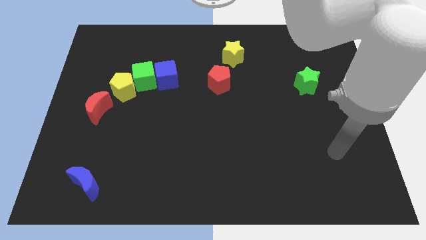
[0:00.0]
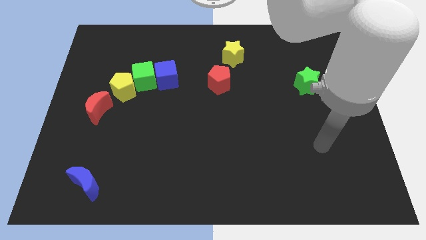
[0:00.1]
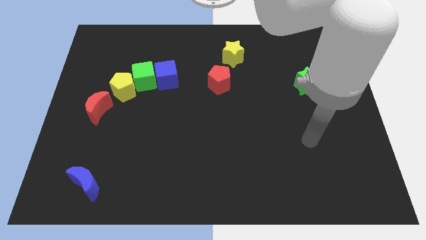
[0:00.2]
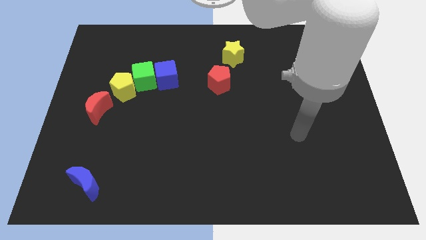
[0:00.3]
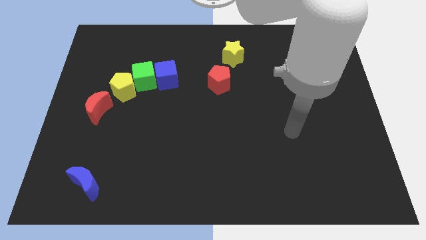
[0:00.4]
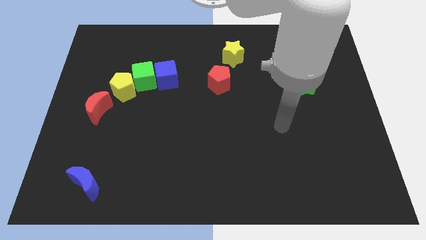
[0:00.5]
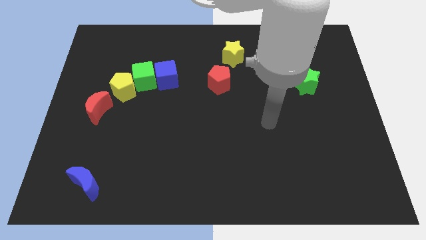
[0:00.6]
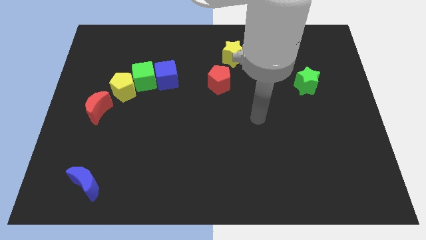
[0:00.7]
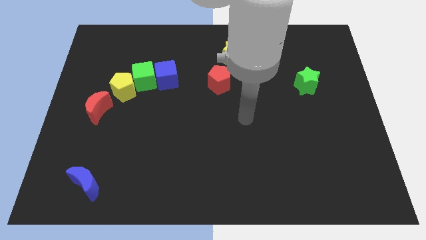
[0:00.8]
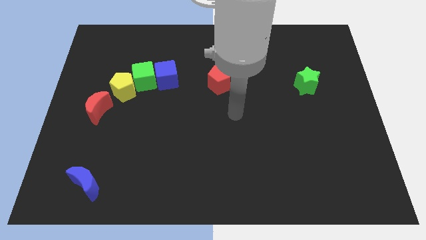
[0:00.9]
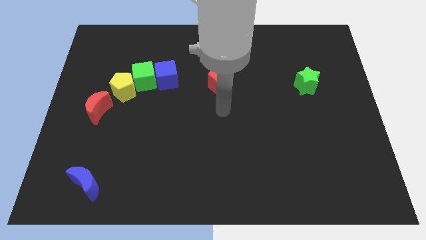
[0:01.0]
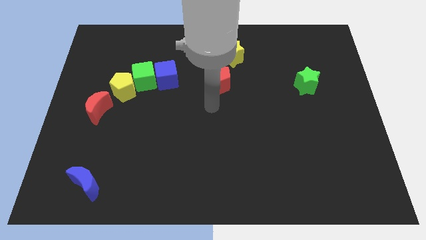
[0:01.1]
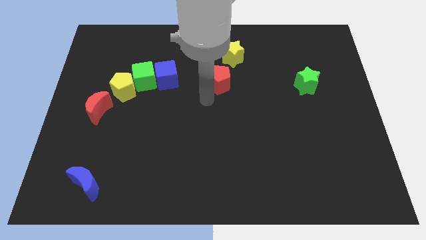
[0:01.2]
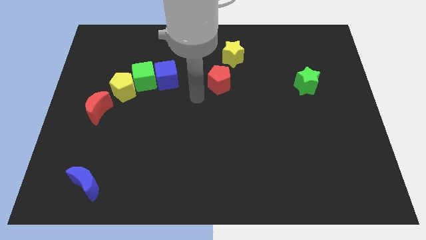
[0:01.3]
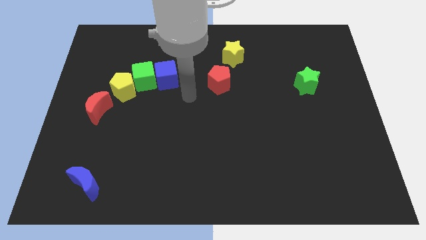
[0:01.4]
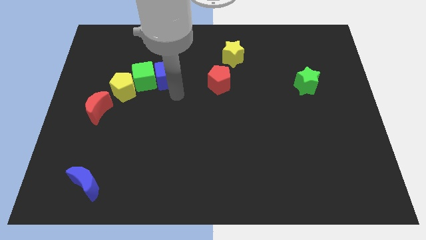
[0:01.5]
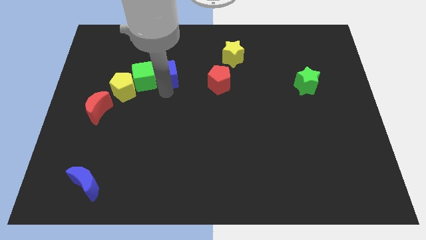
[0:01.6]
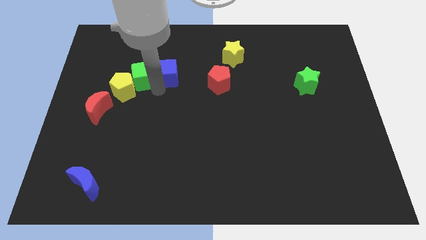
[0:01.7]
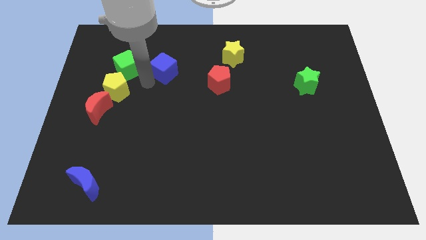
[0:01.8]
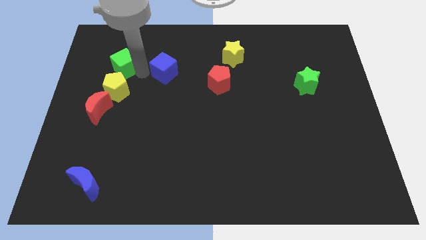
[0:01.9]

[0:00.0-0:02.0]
move the blue cube away from the green cube

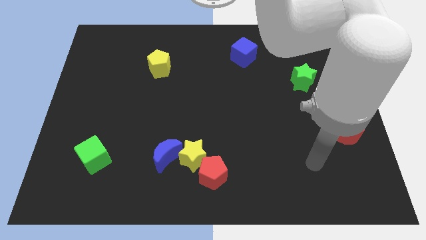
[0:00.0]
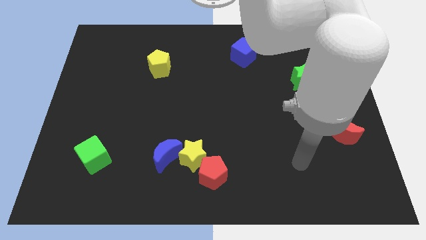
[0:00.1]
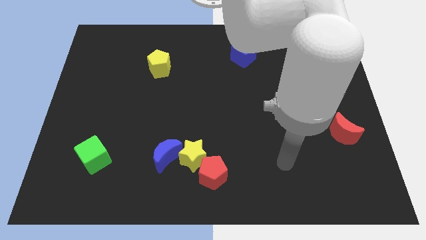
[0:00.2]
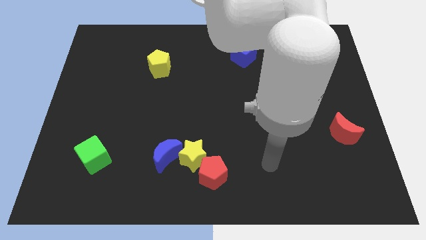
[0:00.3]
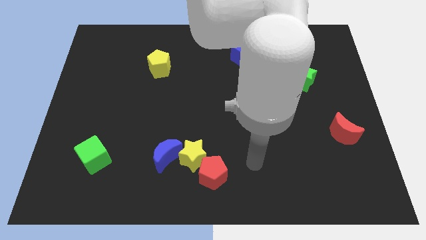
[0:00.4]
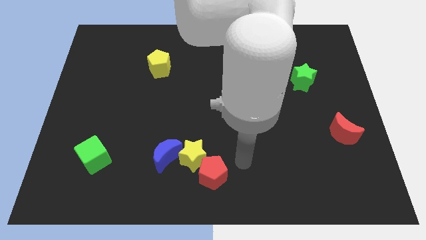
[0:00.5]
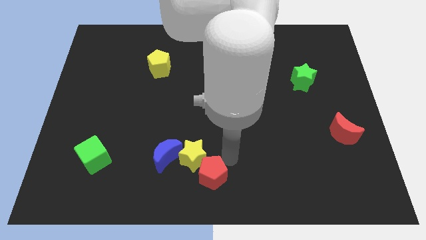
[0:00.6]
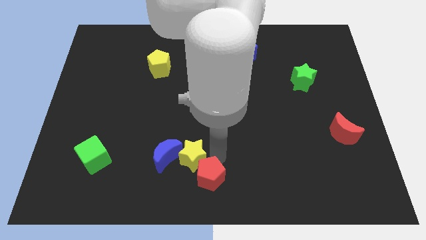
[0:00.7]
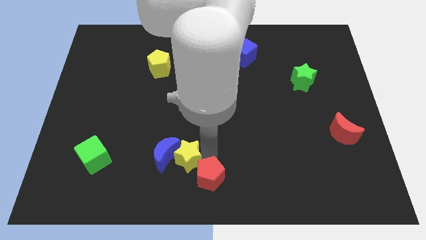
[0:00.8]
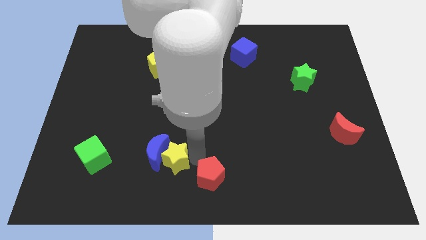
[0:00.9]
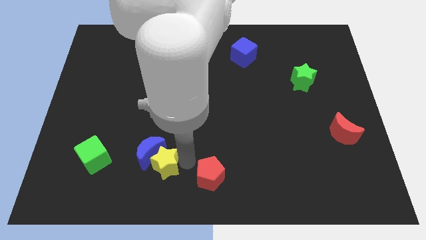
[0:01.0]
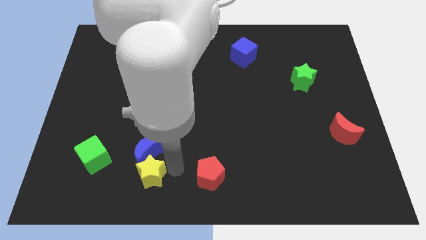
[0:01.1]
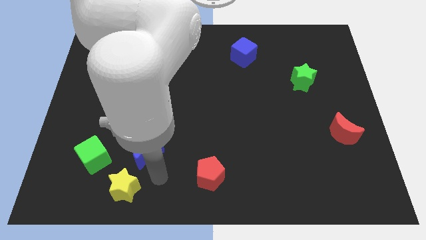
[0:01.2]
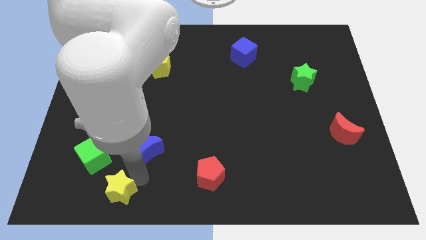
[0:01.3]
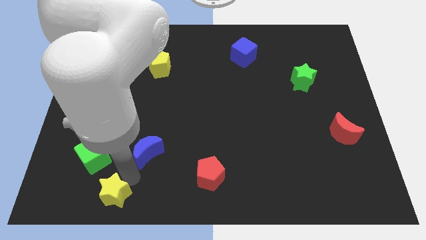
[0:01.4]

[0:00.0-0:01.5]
pull the blue moon apart from the yellow star

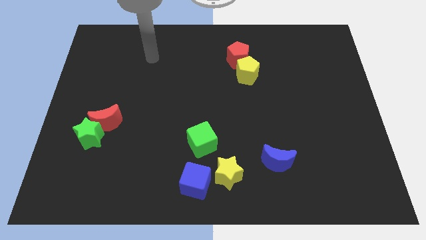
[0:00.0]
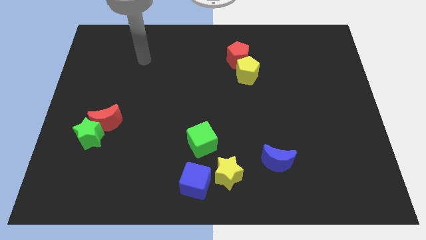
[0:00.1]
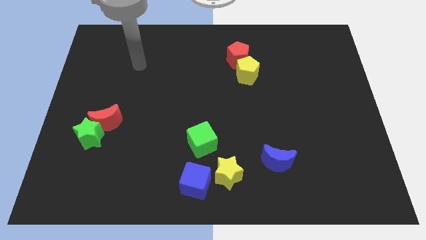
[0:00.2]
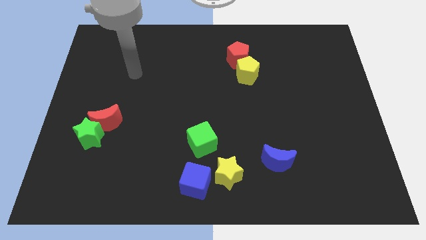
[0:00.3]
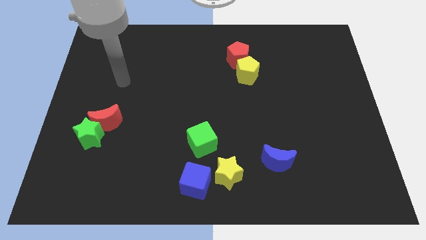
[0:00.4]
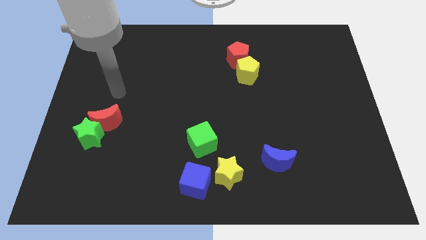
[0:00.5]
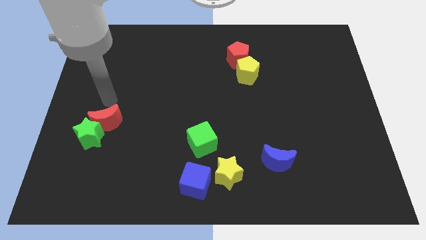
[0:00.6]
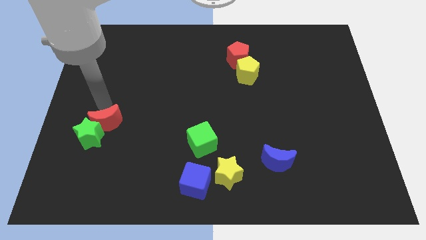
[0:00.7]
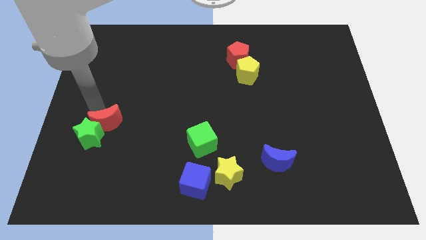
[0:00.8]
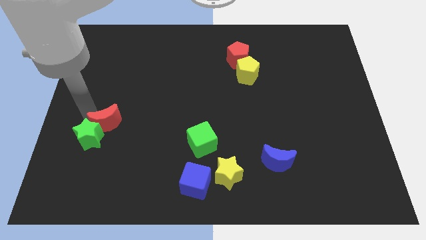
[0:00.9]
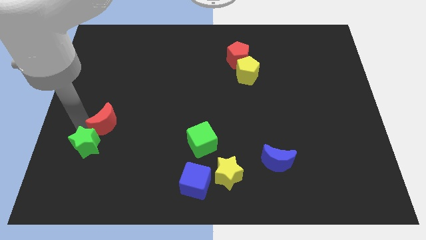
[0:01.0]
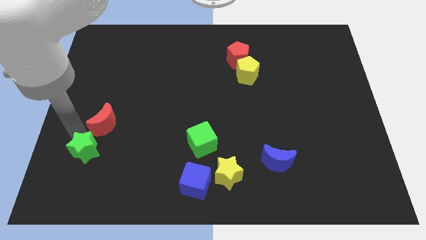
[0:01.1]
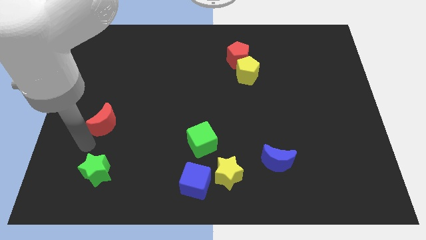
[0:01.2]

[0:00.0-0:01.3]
separate the red moon from the green star

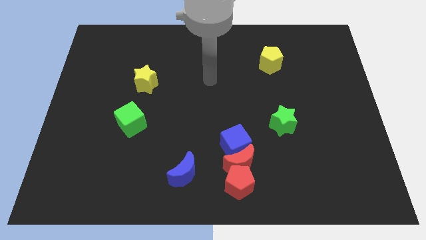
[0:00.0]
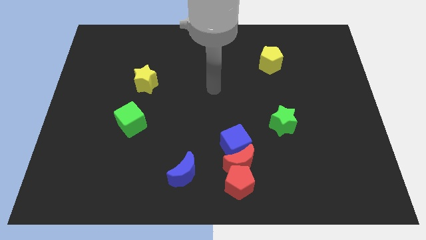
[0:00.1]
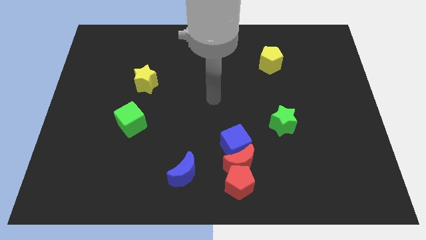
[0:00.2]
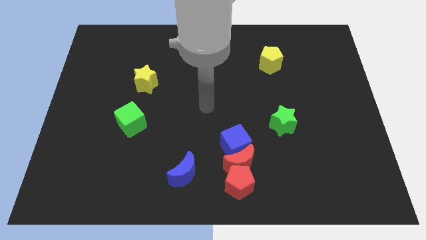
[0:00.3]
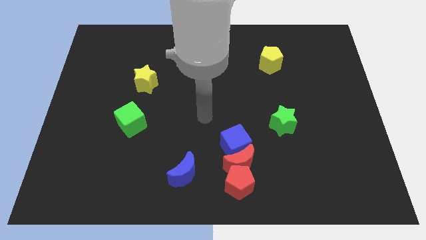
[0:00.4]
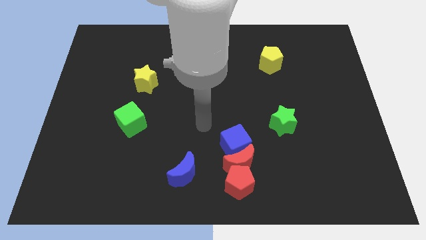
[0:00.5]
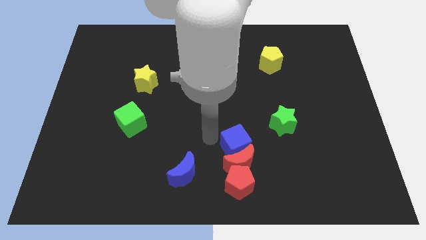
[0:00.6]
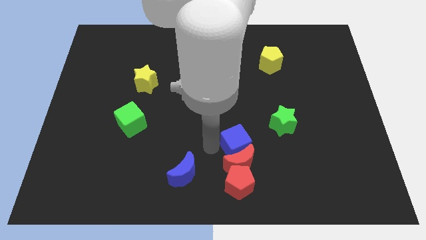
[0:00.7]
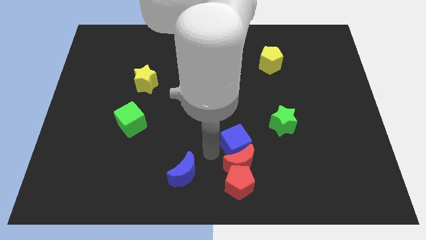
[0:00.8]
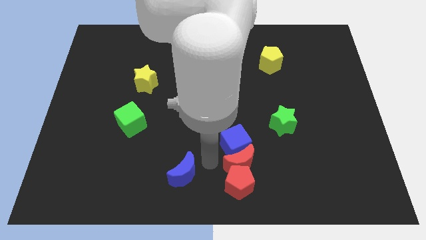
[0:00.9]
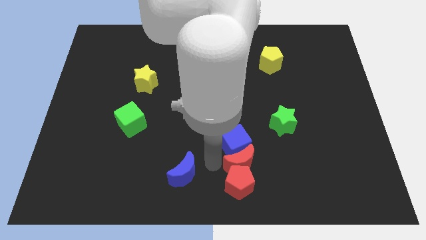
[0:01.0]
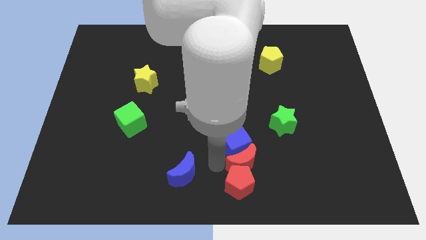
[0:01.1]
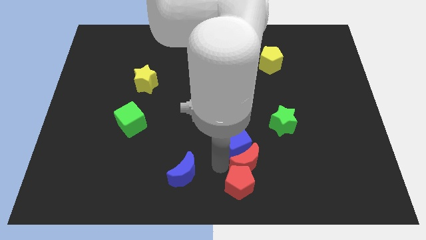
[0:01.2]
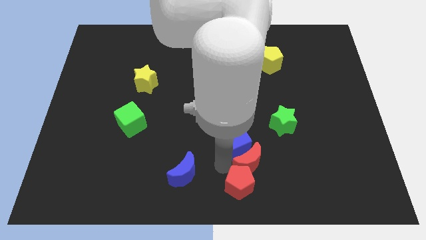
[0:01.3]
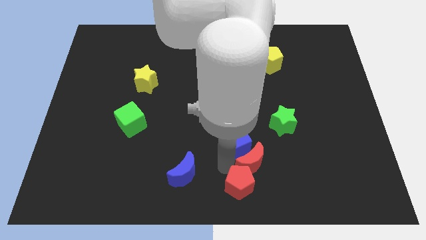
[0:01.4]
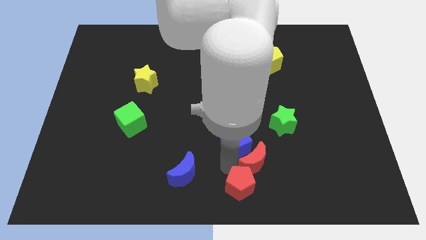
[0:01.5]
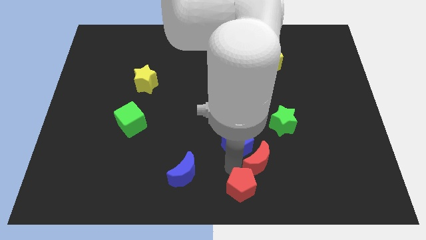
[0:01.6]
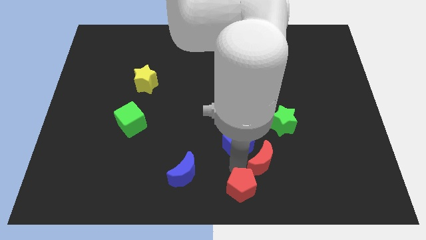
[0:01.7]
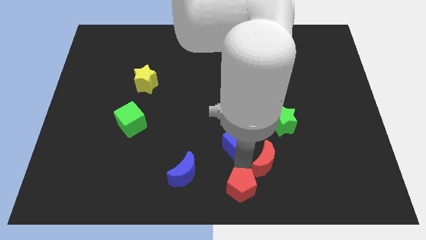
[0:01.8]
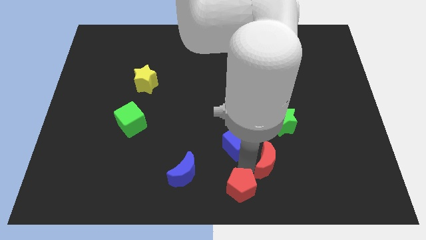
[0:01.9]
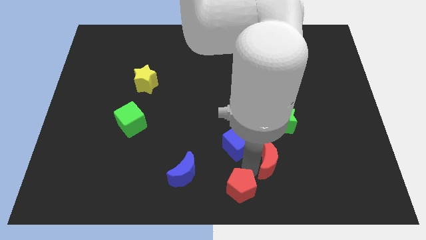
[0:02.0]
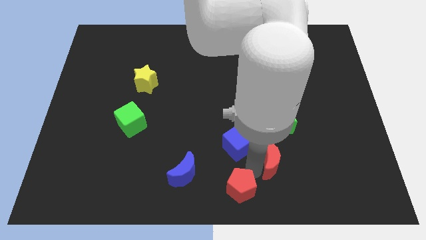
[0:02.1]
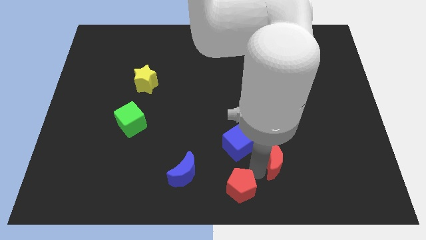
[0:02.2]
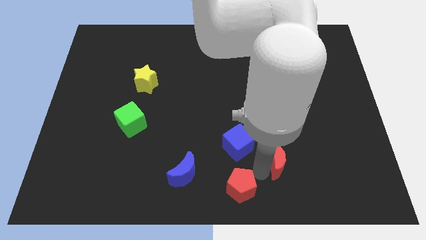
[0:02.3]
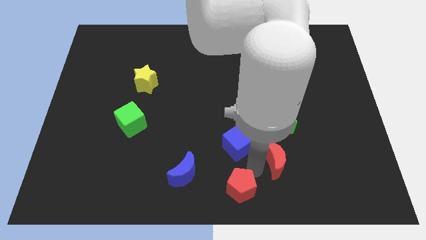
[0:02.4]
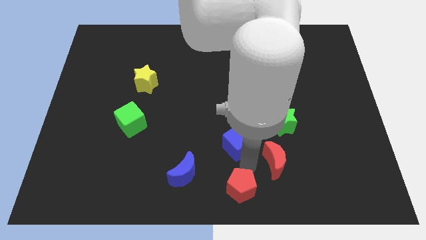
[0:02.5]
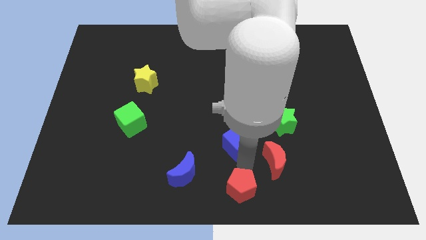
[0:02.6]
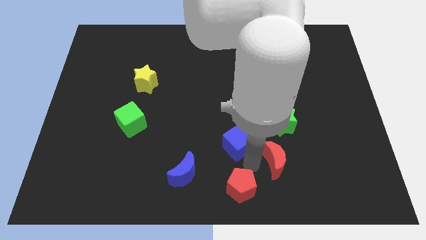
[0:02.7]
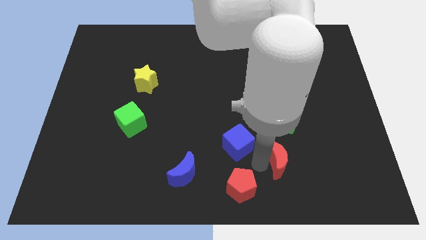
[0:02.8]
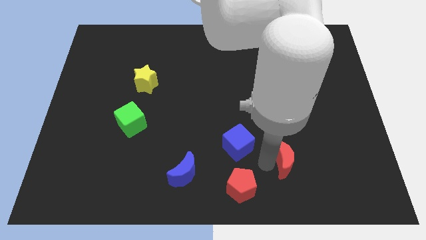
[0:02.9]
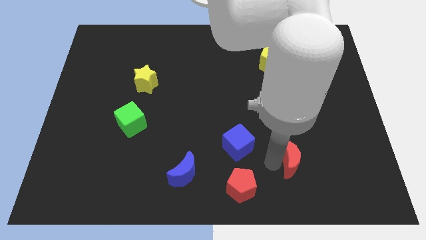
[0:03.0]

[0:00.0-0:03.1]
separate the red moon from the red pentagon and blue cube

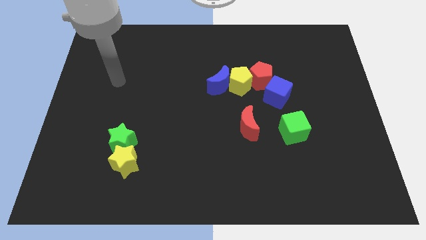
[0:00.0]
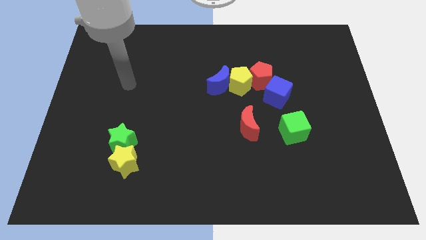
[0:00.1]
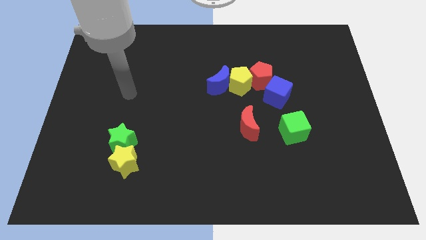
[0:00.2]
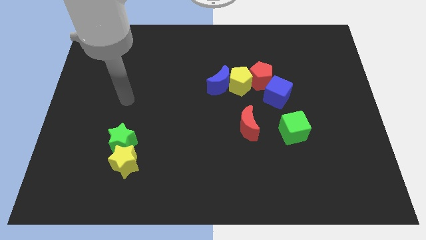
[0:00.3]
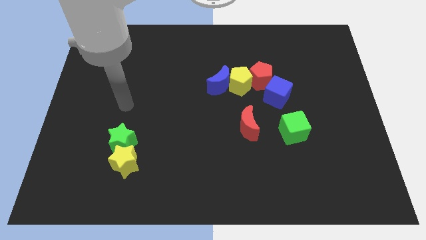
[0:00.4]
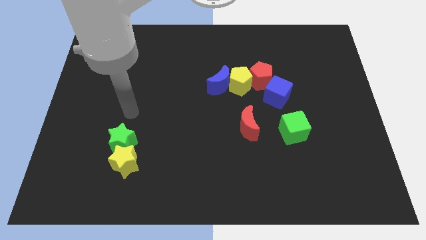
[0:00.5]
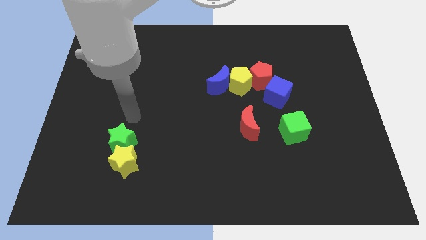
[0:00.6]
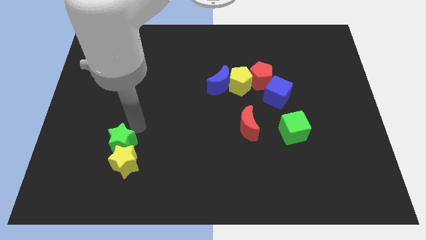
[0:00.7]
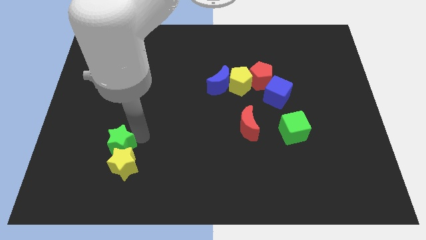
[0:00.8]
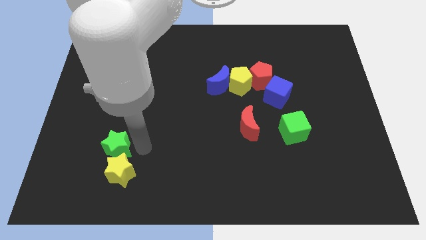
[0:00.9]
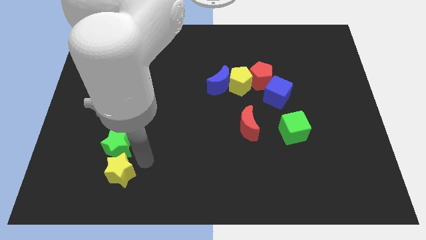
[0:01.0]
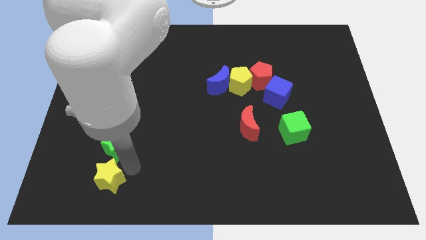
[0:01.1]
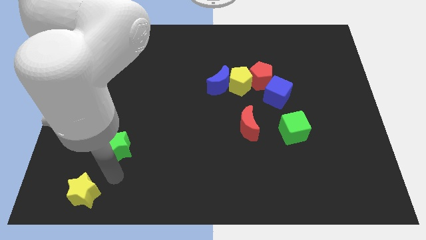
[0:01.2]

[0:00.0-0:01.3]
separate the green star from the yellow star

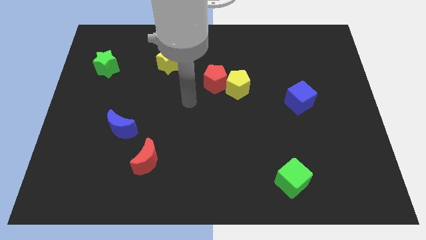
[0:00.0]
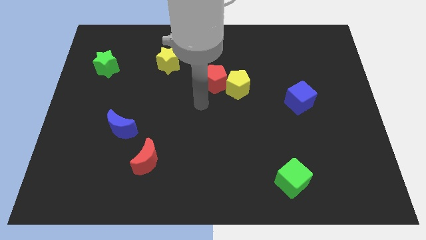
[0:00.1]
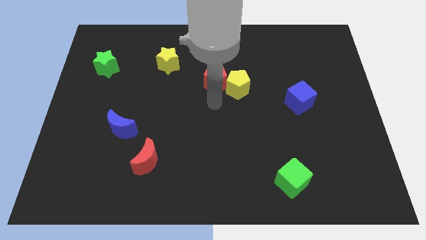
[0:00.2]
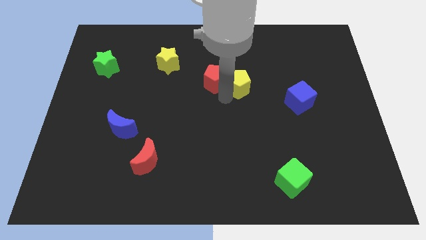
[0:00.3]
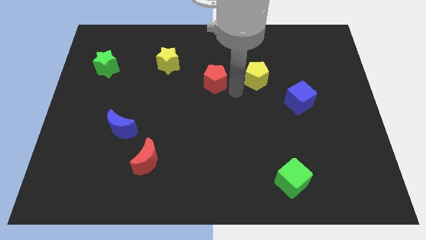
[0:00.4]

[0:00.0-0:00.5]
move the red pentagon away from the yellow pentagon
